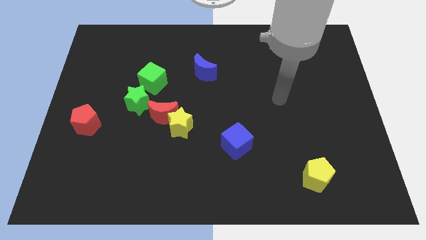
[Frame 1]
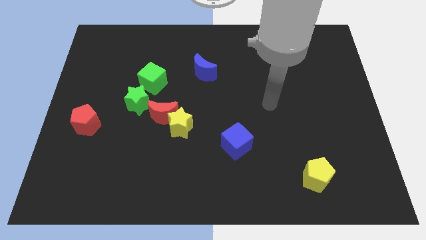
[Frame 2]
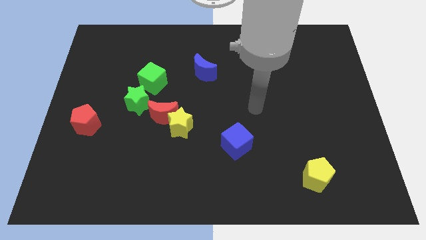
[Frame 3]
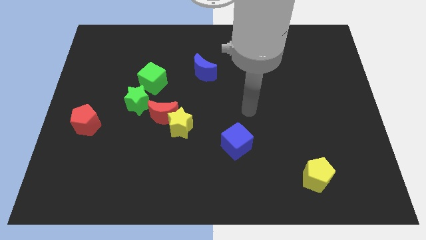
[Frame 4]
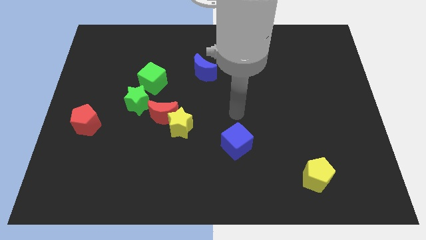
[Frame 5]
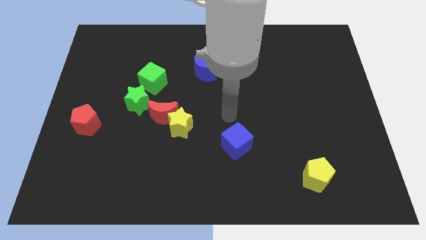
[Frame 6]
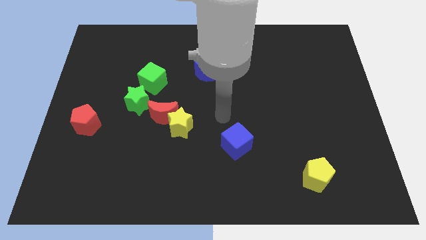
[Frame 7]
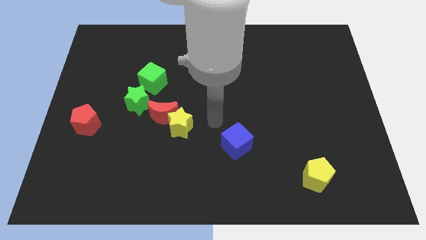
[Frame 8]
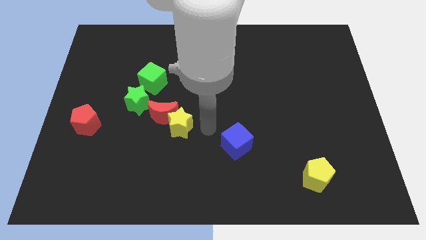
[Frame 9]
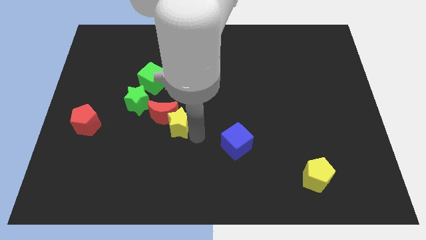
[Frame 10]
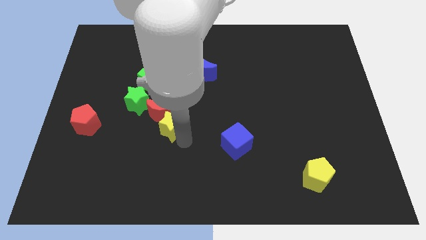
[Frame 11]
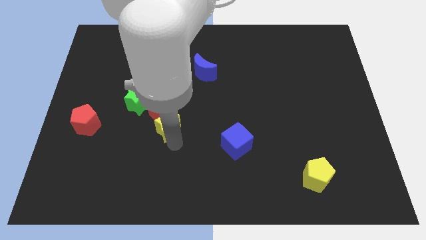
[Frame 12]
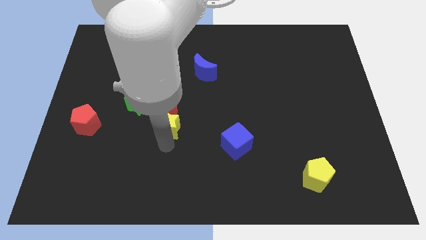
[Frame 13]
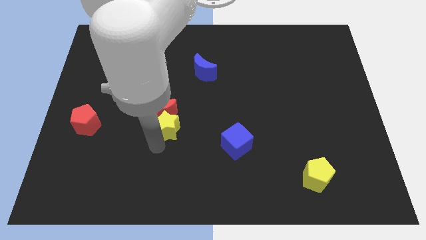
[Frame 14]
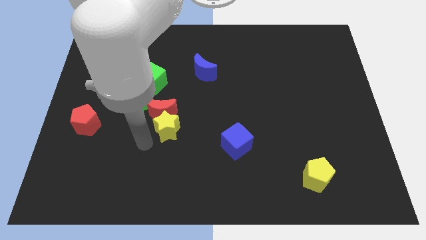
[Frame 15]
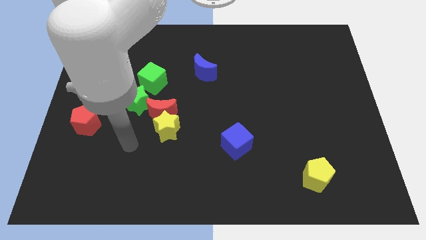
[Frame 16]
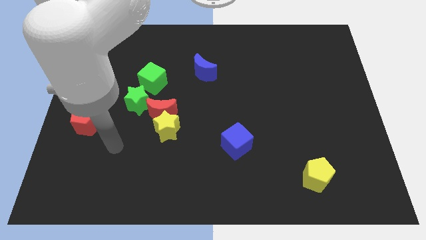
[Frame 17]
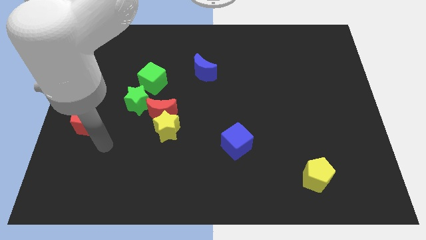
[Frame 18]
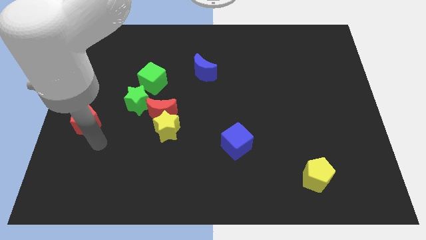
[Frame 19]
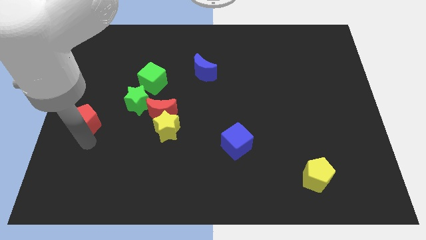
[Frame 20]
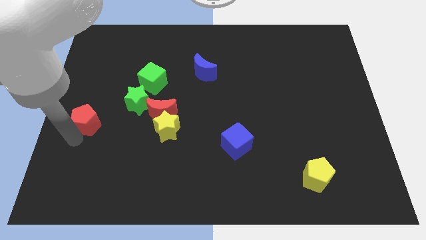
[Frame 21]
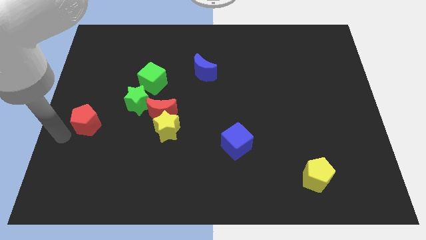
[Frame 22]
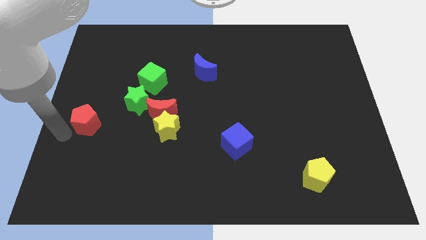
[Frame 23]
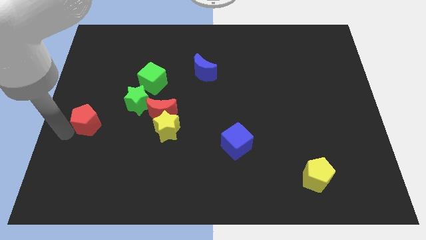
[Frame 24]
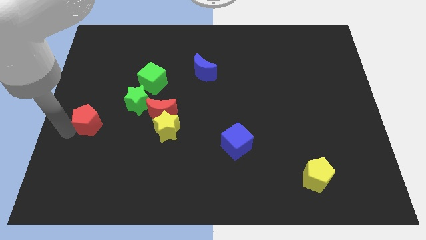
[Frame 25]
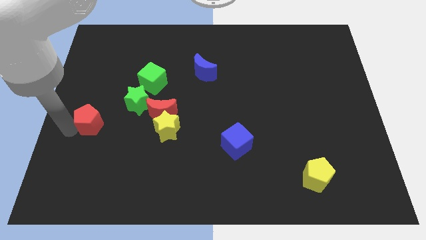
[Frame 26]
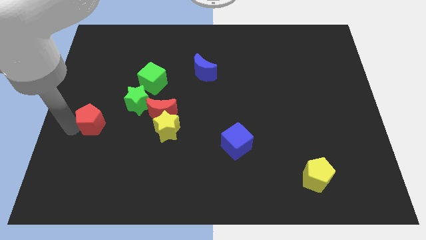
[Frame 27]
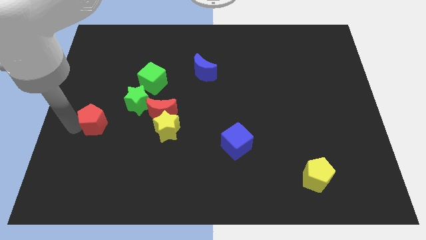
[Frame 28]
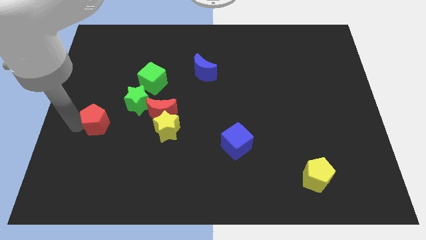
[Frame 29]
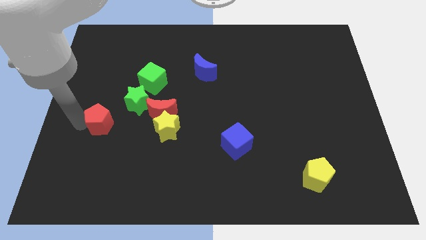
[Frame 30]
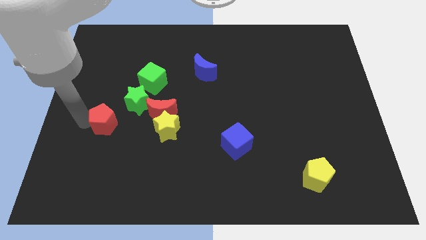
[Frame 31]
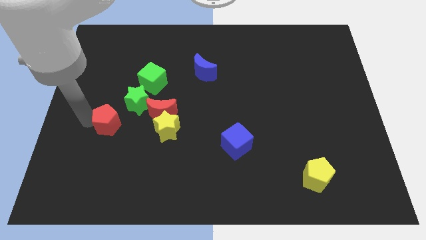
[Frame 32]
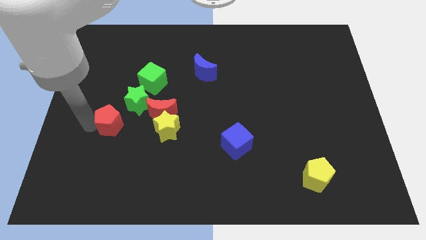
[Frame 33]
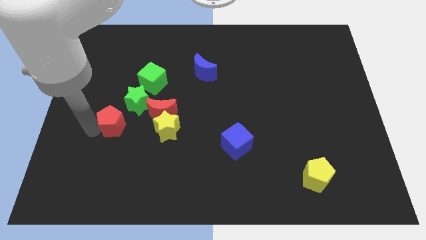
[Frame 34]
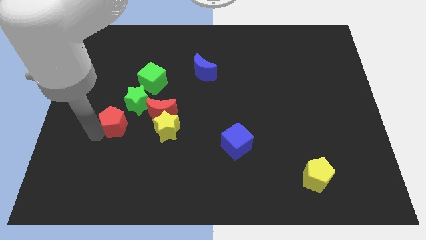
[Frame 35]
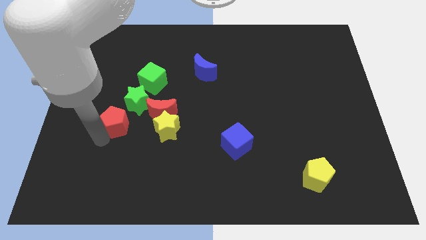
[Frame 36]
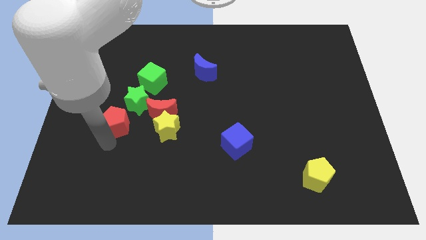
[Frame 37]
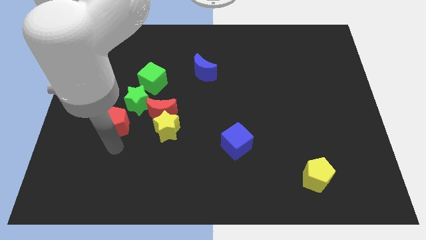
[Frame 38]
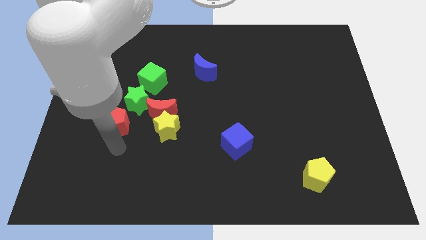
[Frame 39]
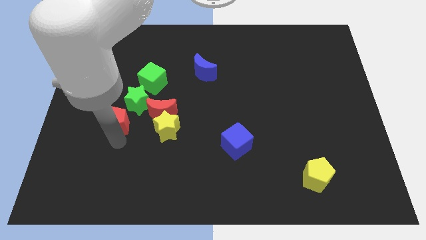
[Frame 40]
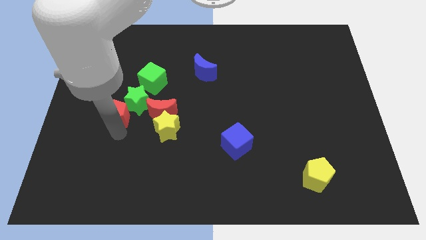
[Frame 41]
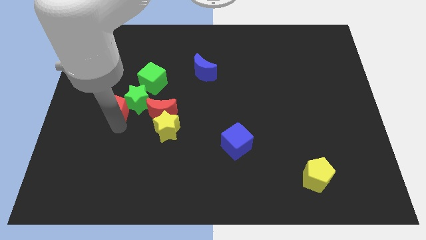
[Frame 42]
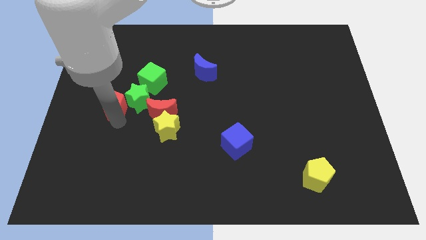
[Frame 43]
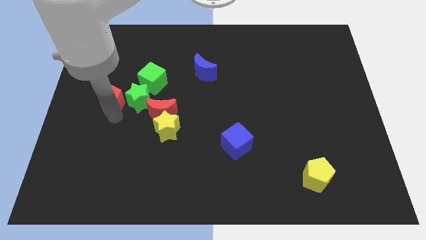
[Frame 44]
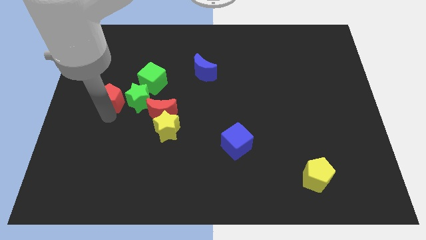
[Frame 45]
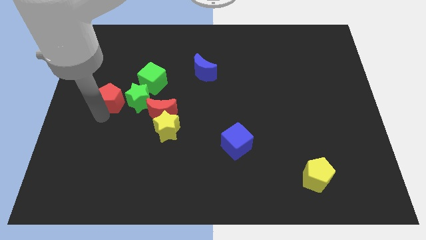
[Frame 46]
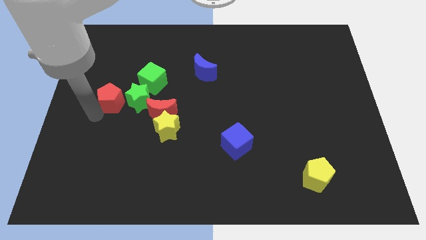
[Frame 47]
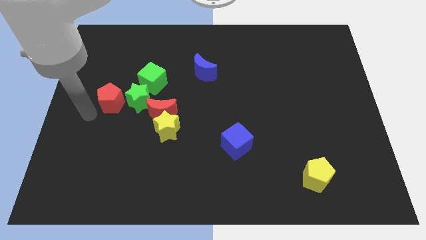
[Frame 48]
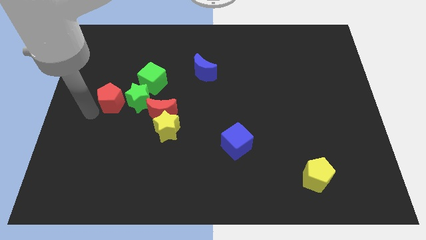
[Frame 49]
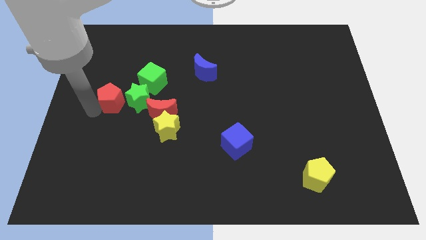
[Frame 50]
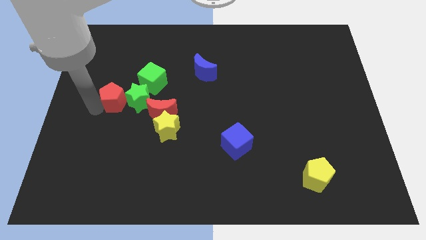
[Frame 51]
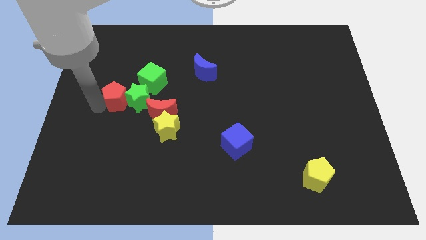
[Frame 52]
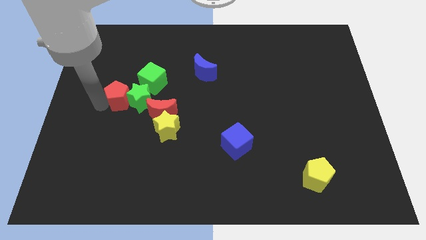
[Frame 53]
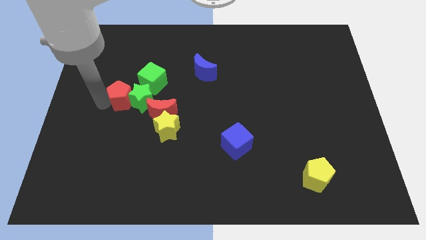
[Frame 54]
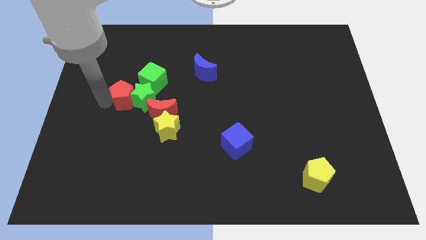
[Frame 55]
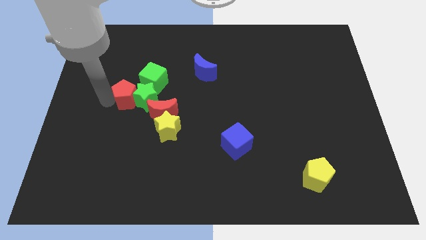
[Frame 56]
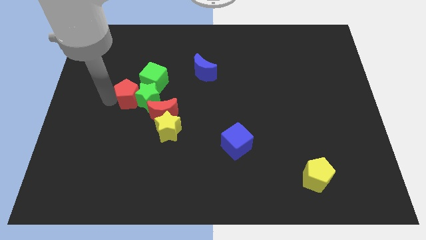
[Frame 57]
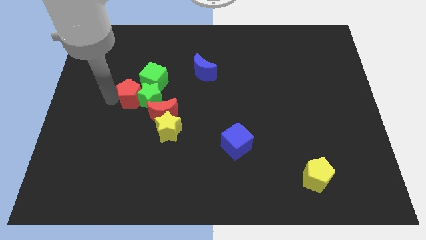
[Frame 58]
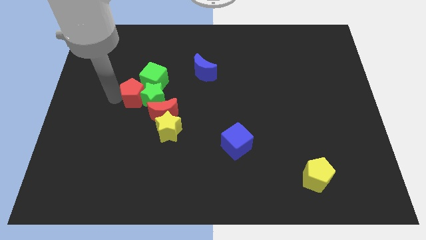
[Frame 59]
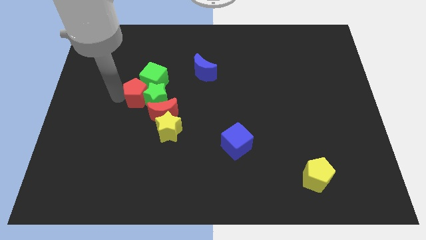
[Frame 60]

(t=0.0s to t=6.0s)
push the red pentagon towards the green cube
